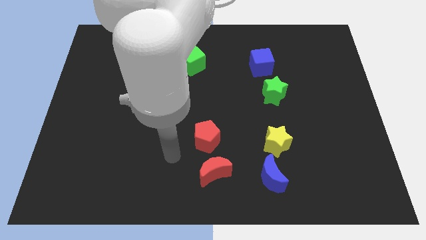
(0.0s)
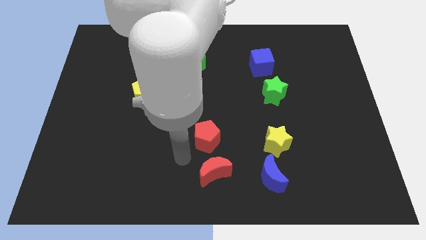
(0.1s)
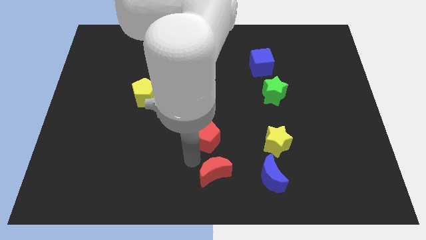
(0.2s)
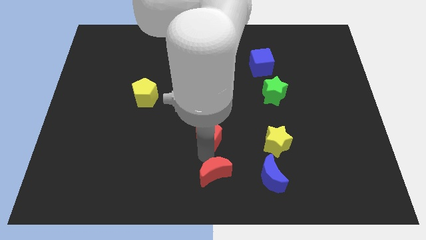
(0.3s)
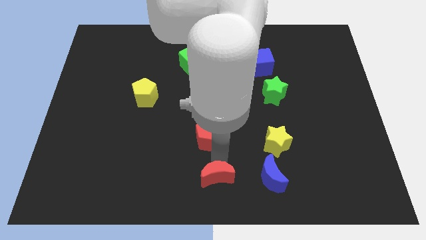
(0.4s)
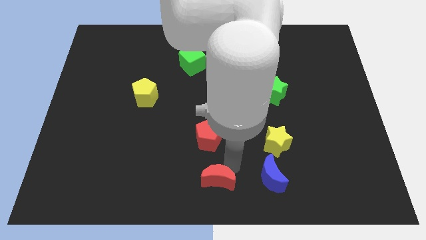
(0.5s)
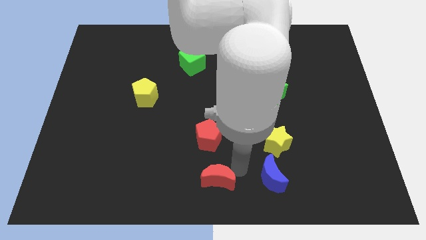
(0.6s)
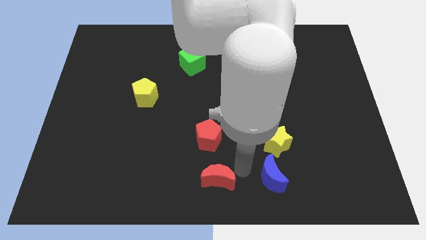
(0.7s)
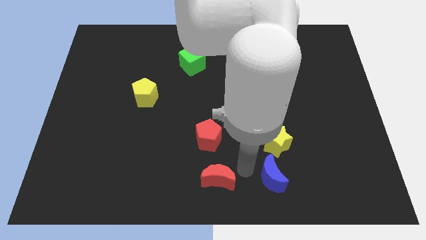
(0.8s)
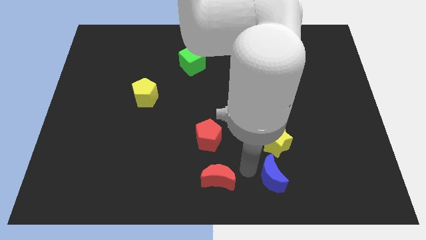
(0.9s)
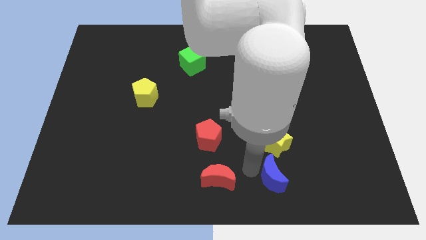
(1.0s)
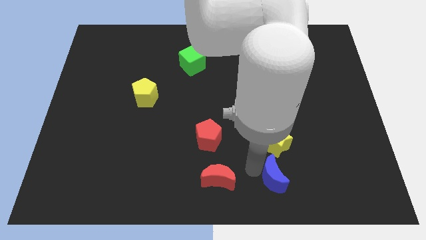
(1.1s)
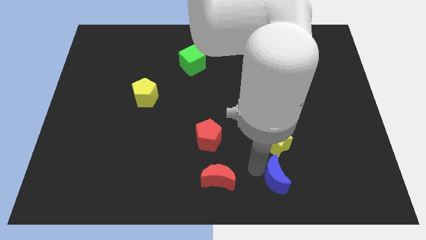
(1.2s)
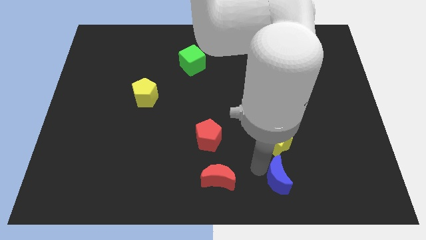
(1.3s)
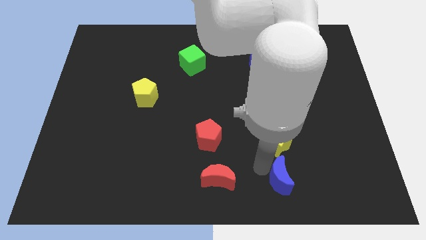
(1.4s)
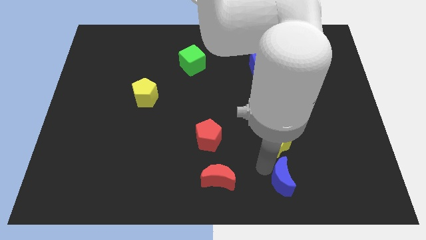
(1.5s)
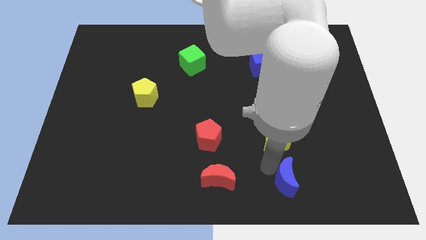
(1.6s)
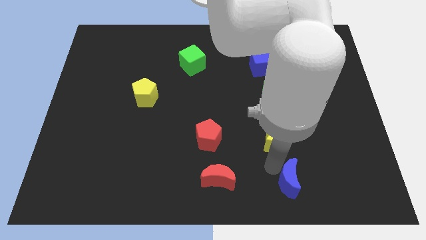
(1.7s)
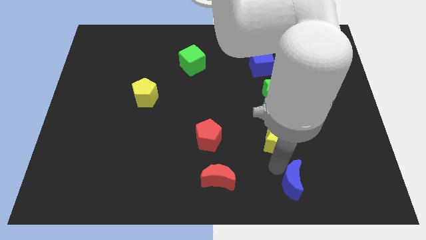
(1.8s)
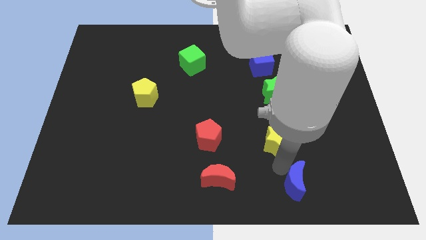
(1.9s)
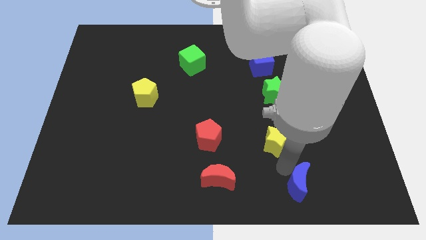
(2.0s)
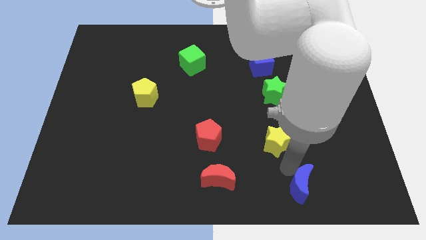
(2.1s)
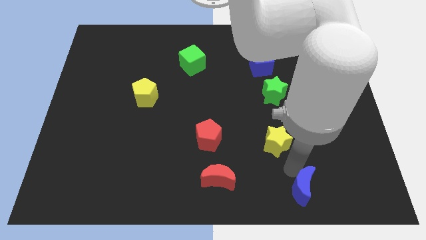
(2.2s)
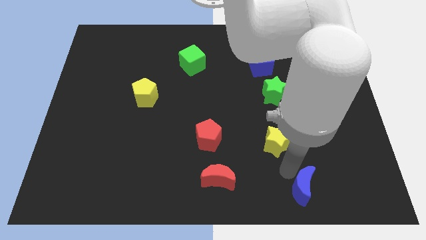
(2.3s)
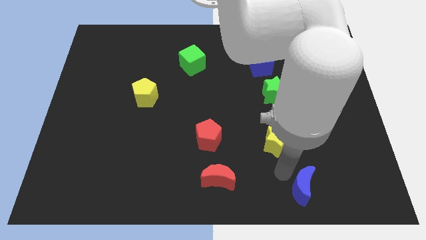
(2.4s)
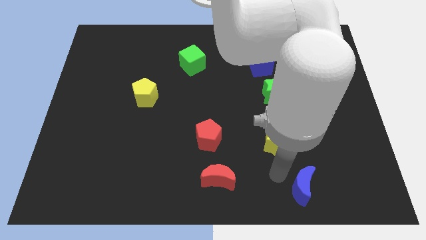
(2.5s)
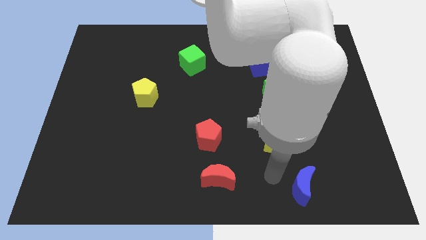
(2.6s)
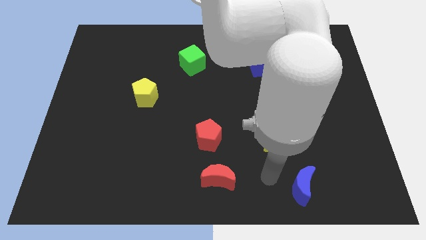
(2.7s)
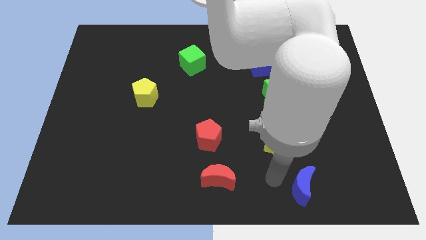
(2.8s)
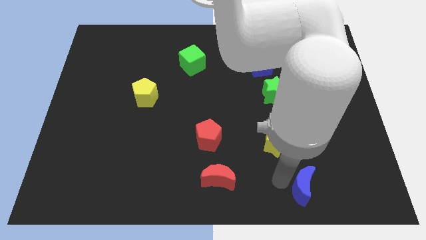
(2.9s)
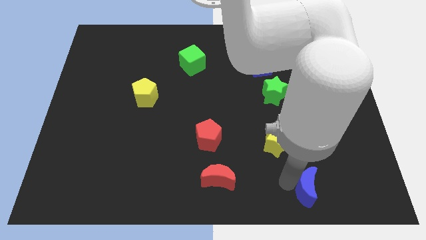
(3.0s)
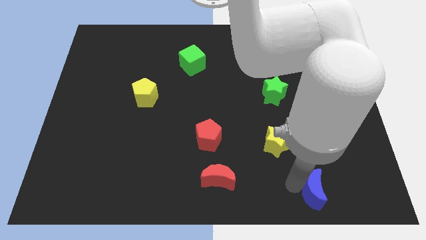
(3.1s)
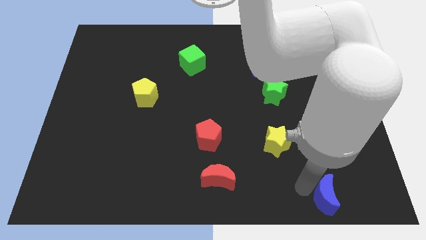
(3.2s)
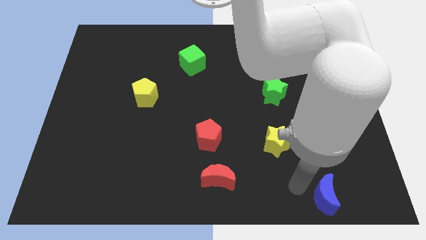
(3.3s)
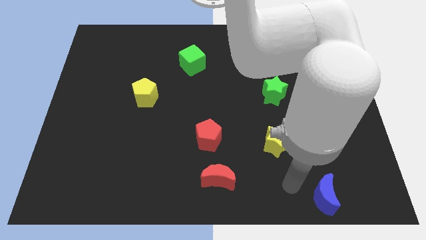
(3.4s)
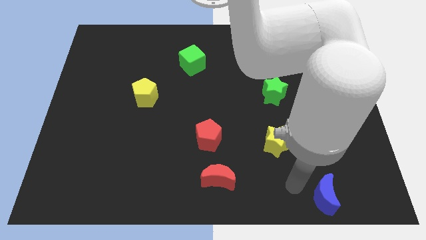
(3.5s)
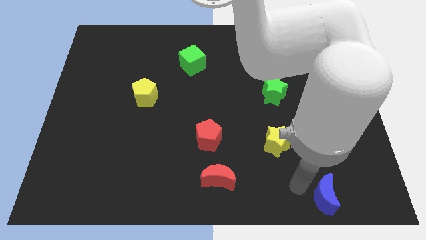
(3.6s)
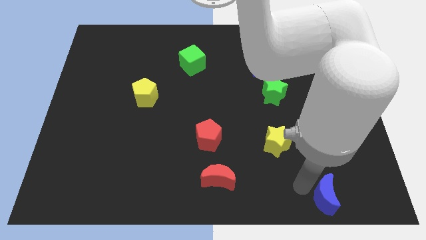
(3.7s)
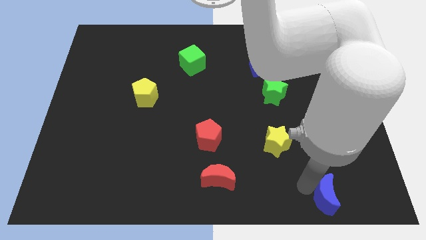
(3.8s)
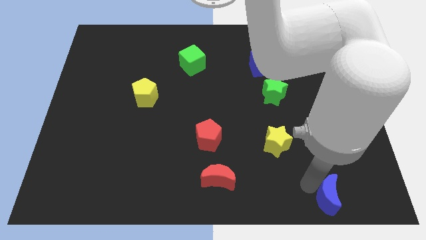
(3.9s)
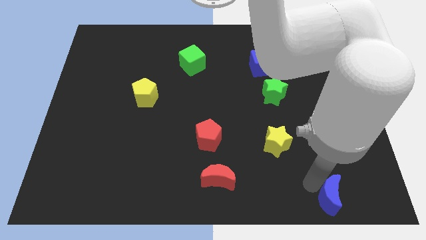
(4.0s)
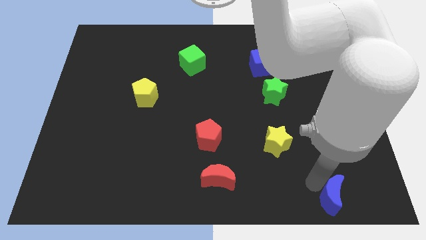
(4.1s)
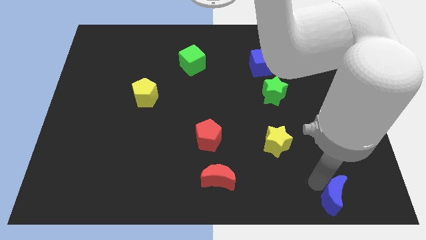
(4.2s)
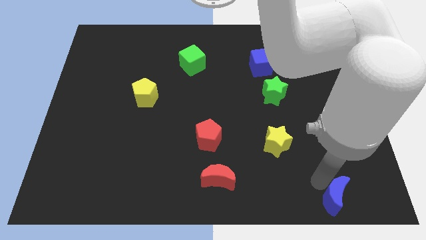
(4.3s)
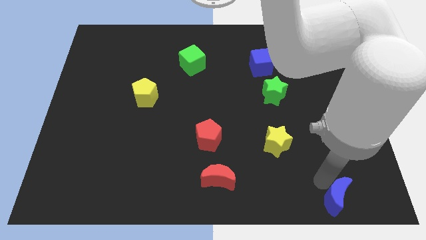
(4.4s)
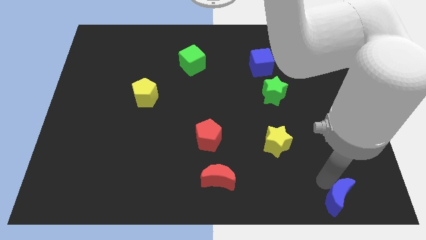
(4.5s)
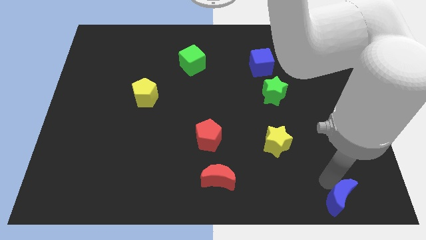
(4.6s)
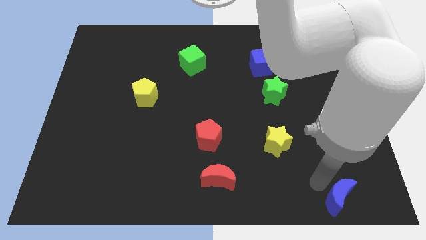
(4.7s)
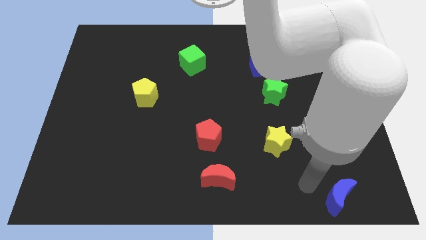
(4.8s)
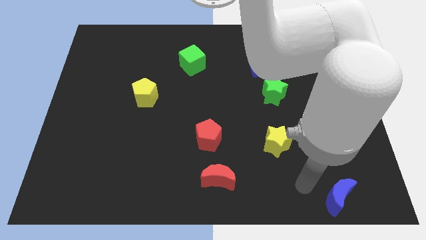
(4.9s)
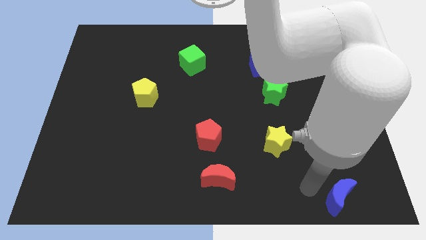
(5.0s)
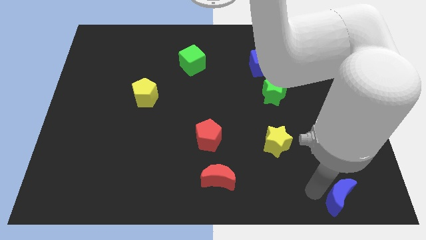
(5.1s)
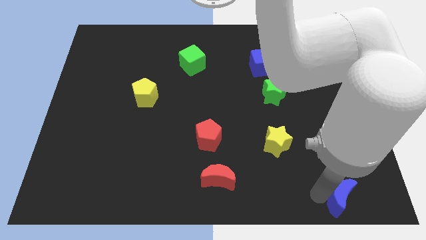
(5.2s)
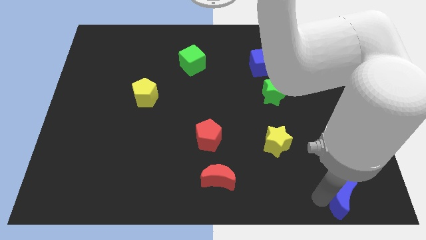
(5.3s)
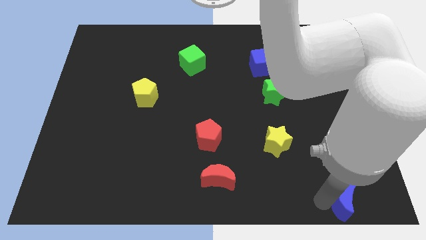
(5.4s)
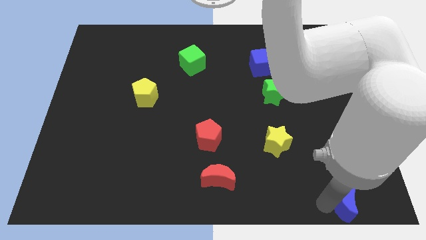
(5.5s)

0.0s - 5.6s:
put the blue moon to the bottom right corner

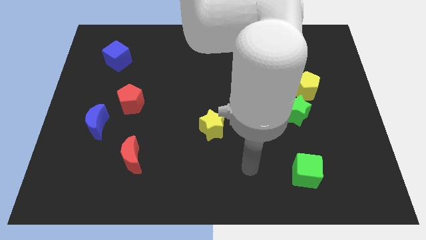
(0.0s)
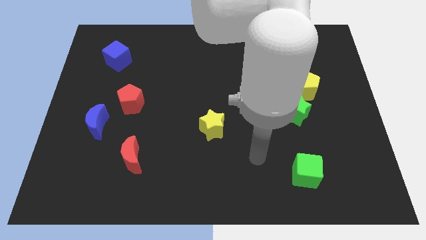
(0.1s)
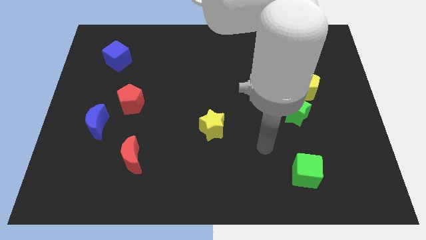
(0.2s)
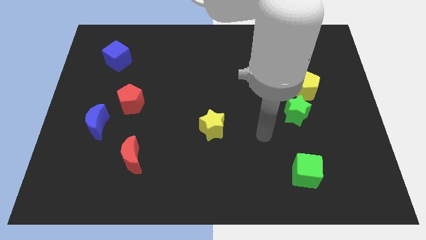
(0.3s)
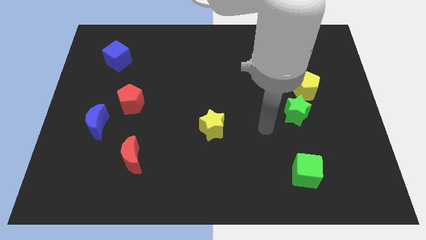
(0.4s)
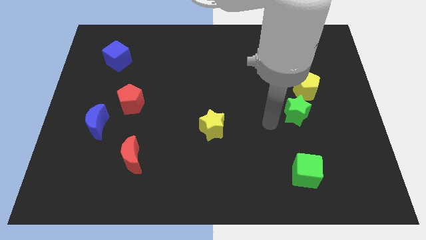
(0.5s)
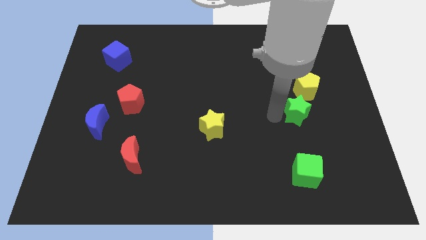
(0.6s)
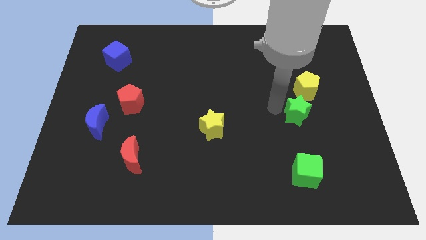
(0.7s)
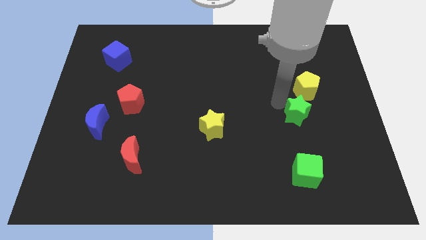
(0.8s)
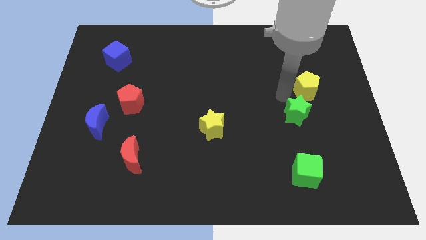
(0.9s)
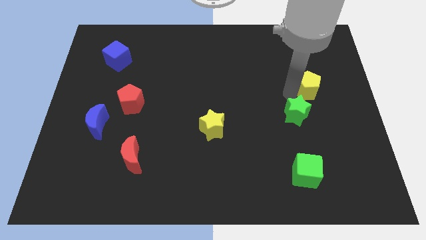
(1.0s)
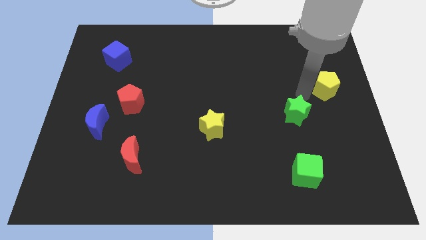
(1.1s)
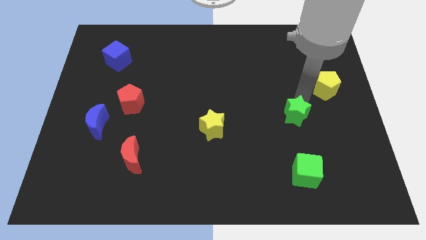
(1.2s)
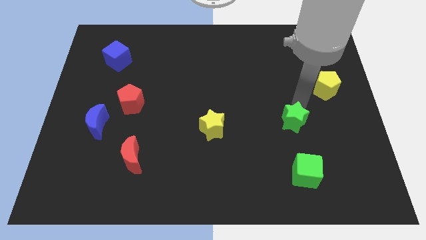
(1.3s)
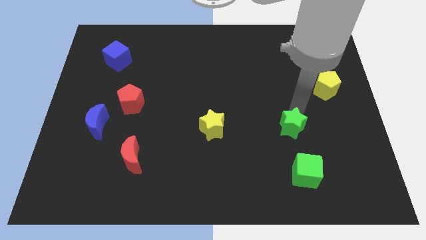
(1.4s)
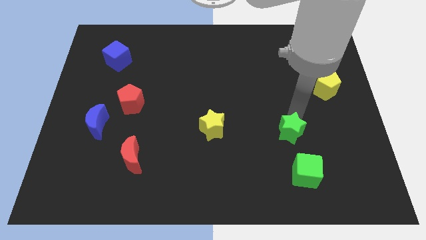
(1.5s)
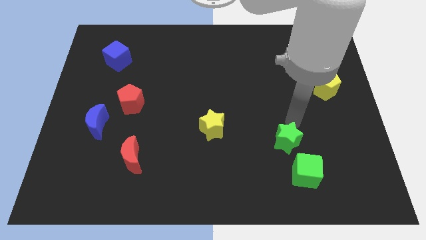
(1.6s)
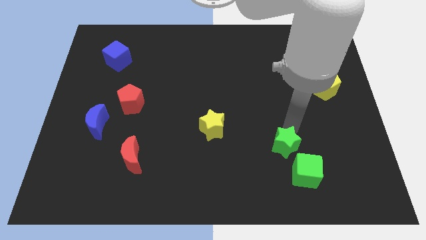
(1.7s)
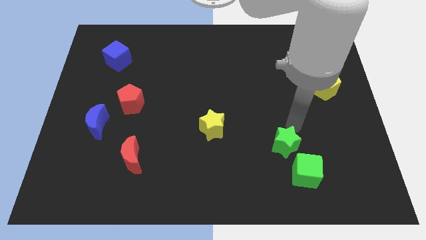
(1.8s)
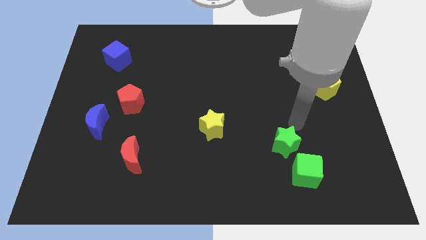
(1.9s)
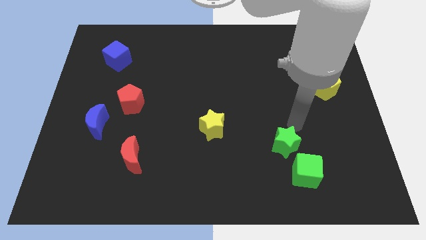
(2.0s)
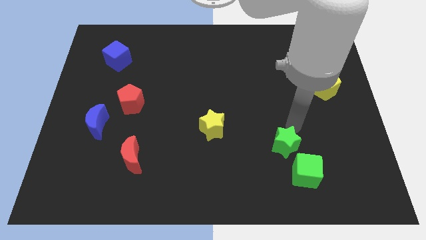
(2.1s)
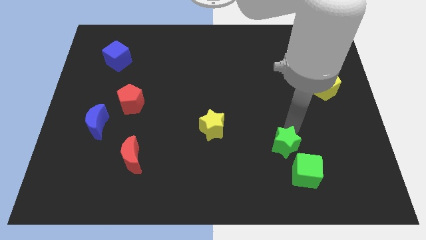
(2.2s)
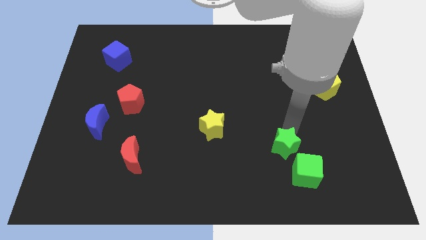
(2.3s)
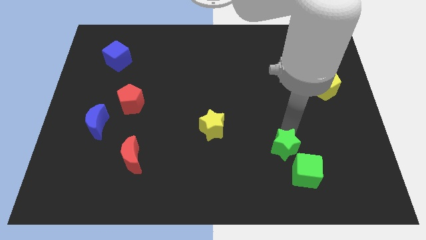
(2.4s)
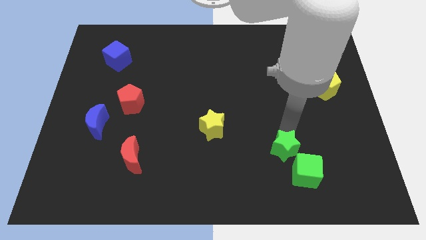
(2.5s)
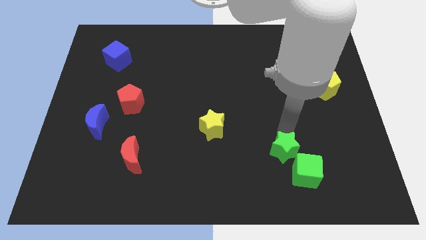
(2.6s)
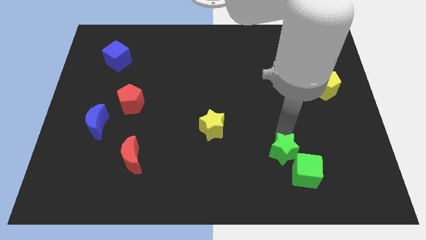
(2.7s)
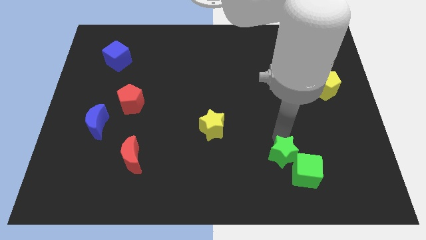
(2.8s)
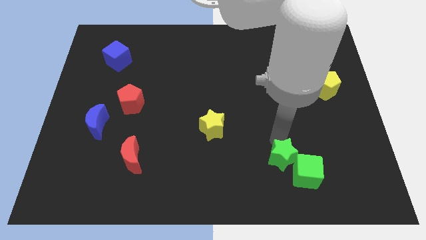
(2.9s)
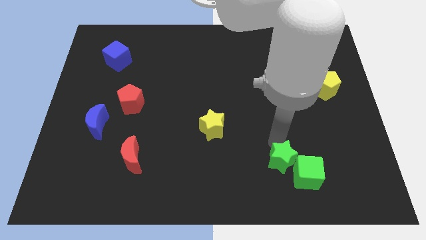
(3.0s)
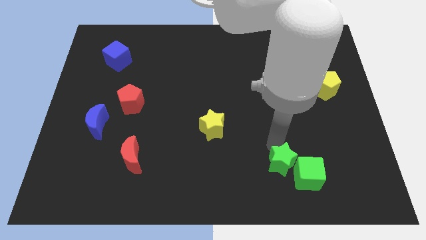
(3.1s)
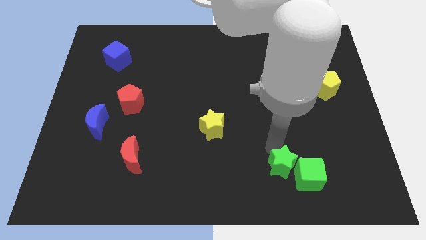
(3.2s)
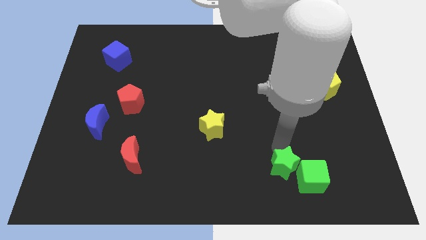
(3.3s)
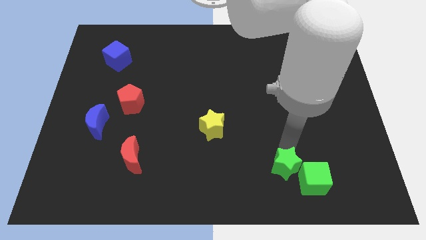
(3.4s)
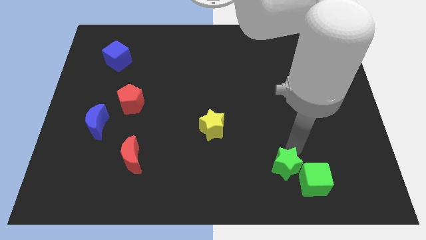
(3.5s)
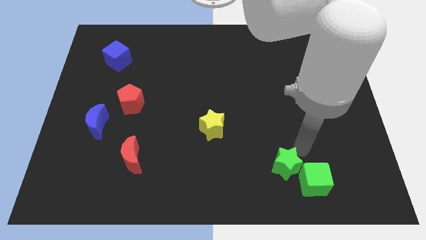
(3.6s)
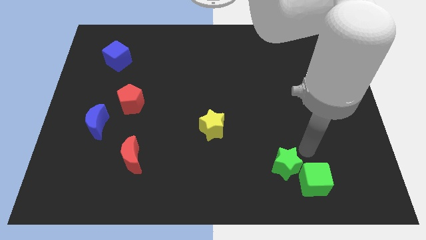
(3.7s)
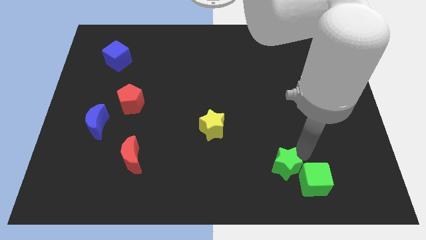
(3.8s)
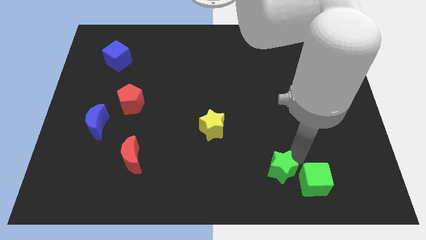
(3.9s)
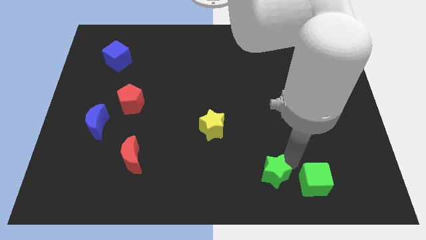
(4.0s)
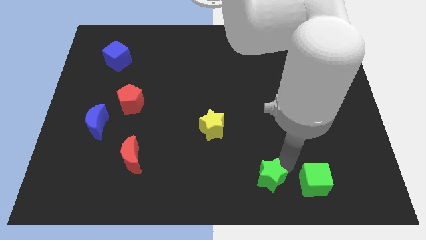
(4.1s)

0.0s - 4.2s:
push the green star to the bottom
